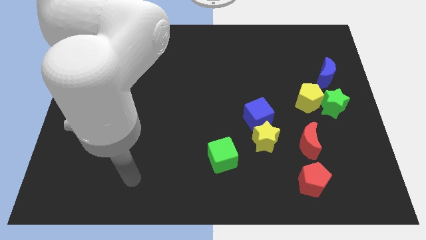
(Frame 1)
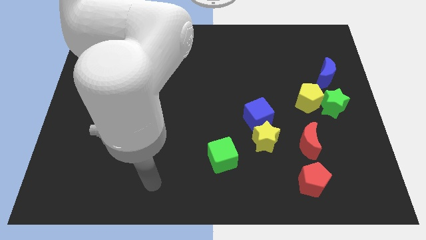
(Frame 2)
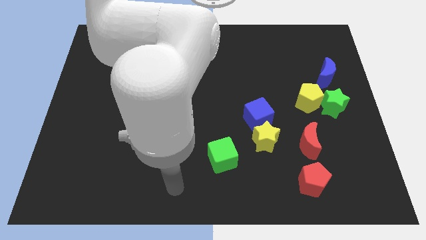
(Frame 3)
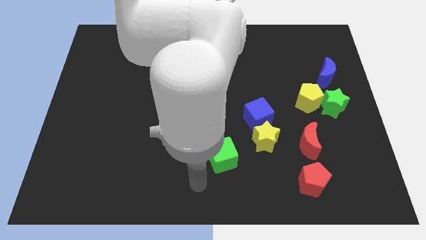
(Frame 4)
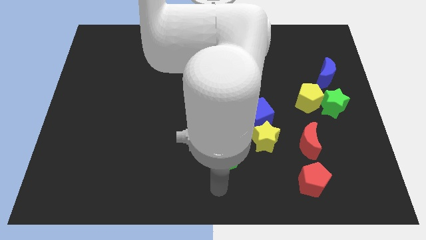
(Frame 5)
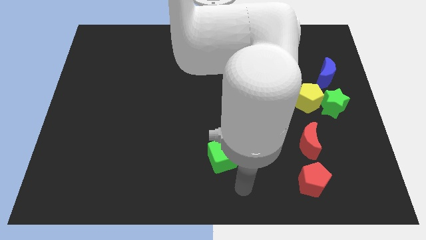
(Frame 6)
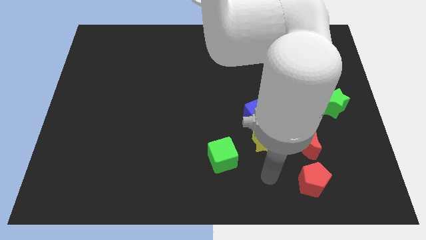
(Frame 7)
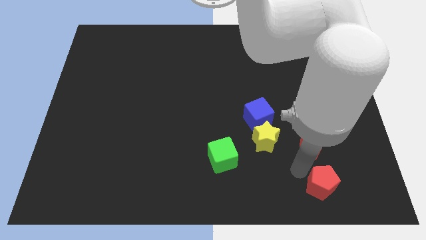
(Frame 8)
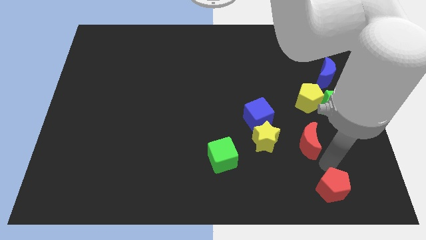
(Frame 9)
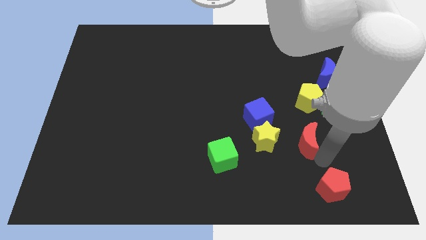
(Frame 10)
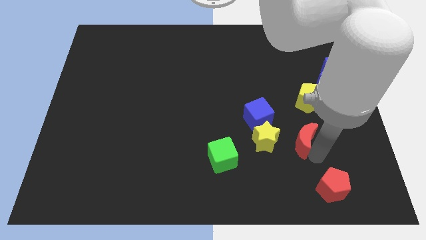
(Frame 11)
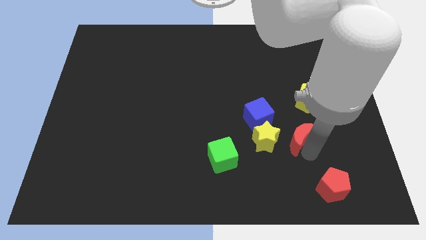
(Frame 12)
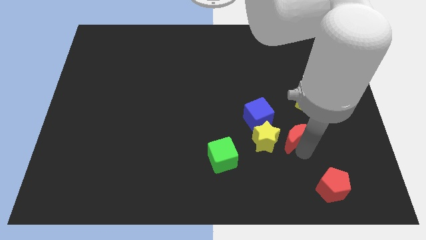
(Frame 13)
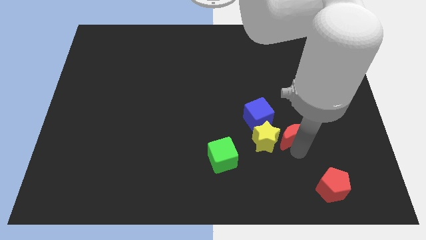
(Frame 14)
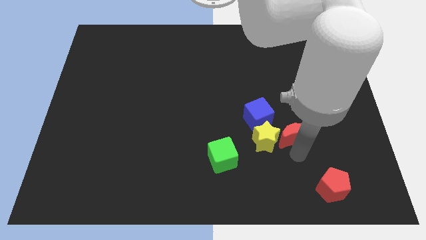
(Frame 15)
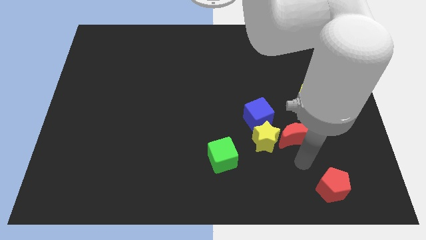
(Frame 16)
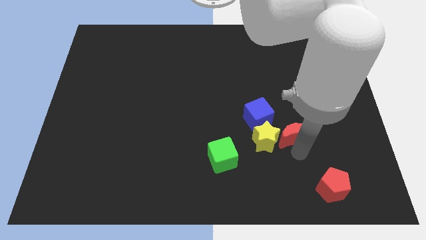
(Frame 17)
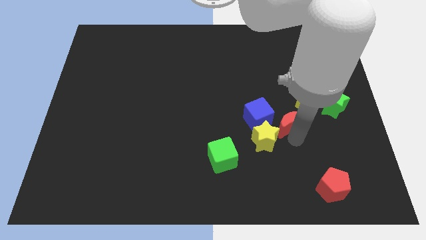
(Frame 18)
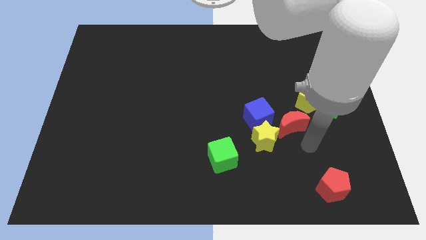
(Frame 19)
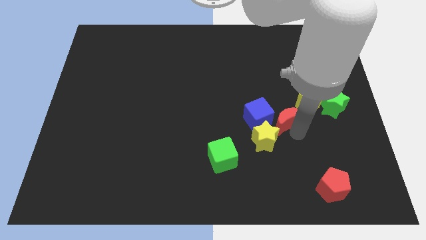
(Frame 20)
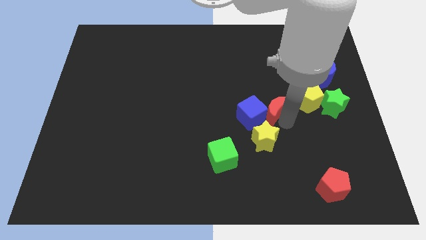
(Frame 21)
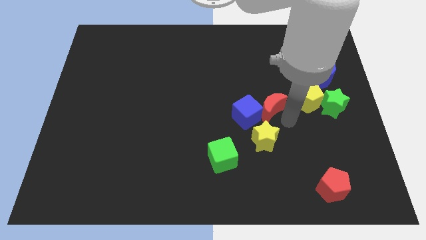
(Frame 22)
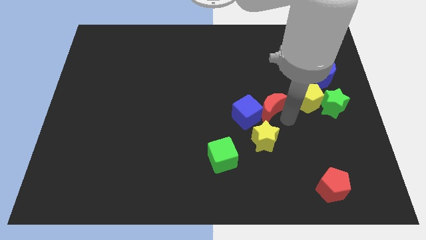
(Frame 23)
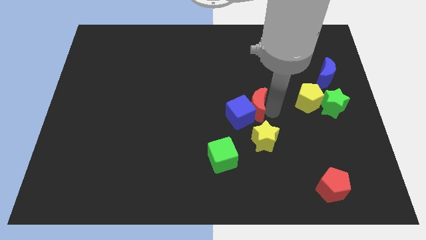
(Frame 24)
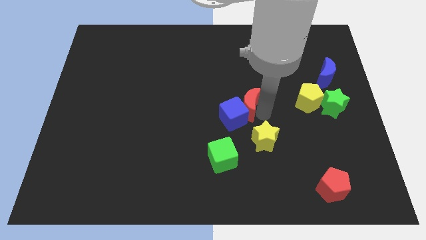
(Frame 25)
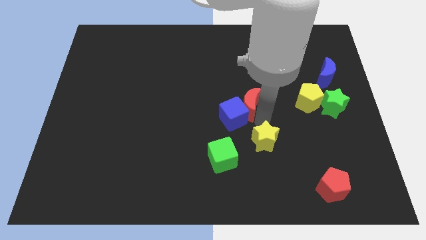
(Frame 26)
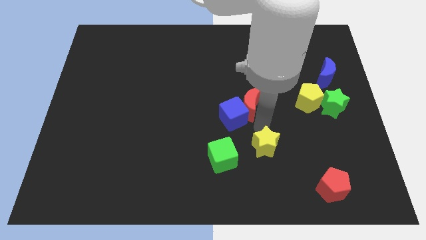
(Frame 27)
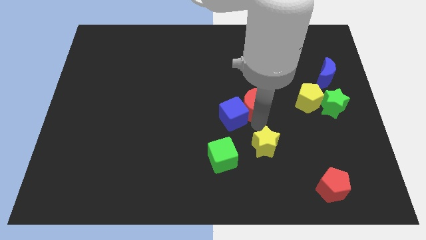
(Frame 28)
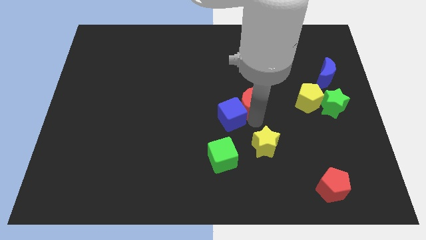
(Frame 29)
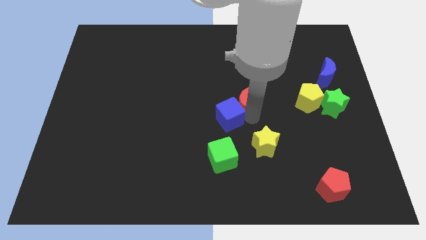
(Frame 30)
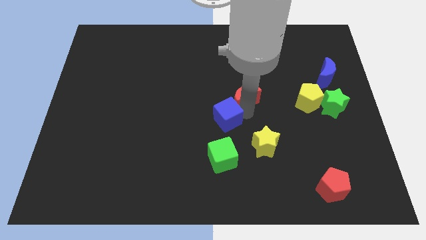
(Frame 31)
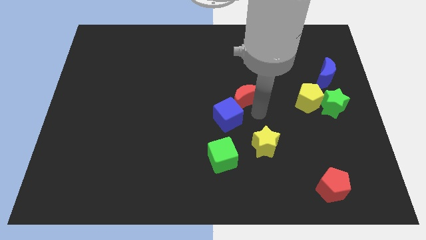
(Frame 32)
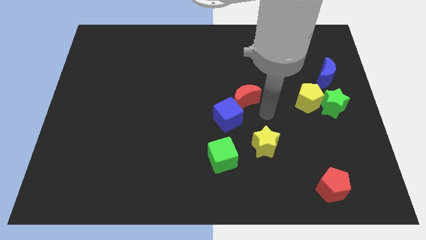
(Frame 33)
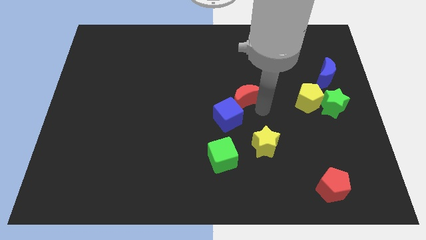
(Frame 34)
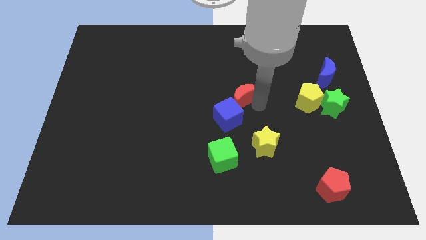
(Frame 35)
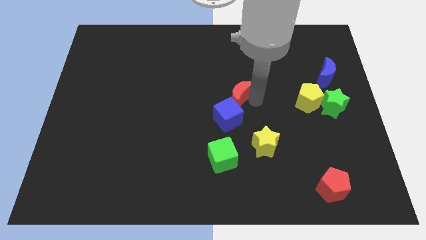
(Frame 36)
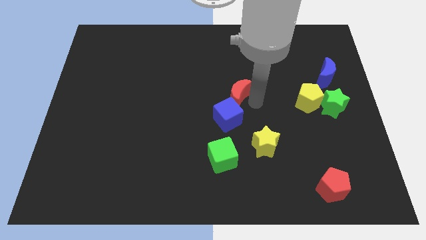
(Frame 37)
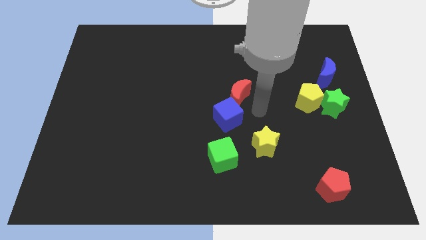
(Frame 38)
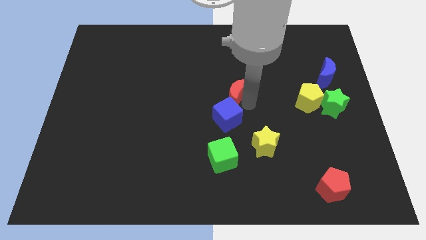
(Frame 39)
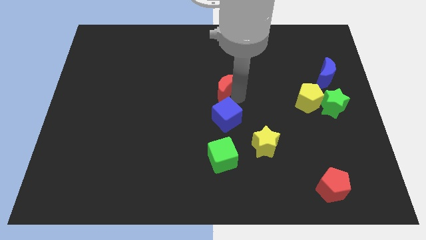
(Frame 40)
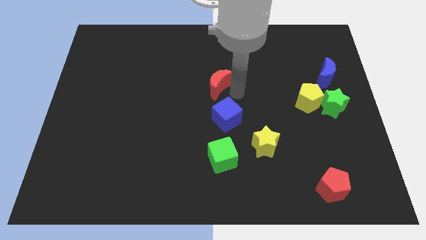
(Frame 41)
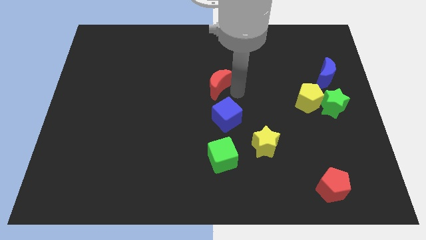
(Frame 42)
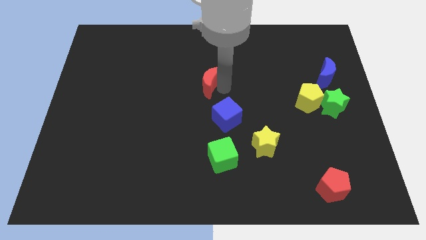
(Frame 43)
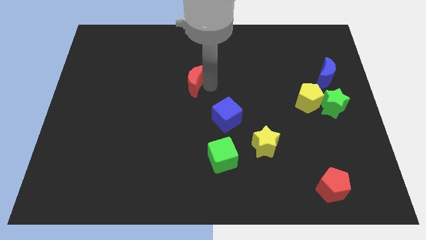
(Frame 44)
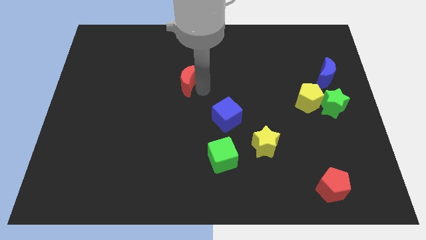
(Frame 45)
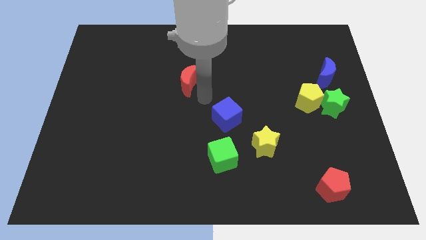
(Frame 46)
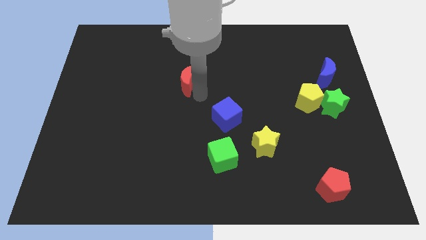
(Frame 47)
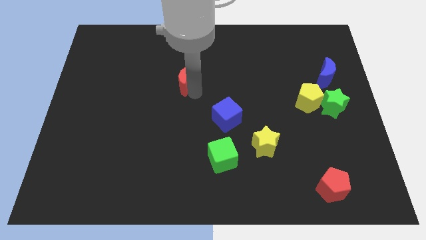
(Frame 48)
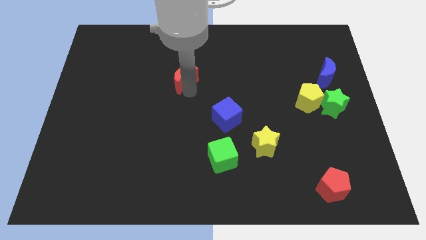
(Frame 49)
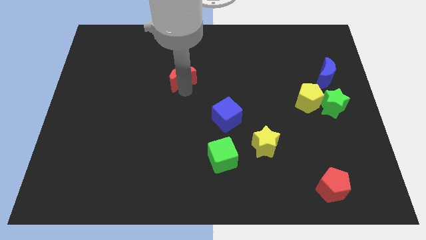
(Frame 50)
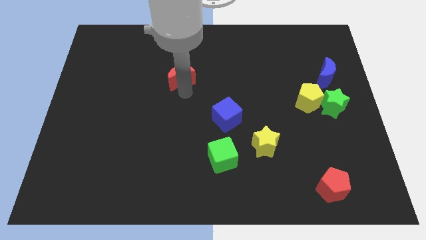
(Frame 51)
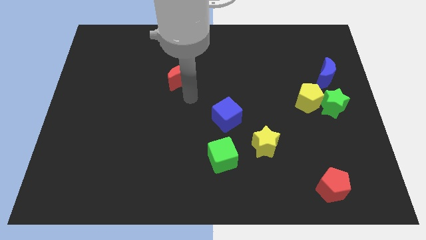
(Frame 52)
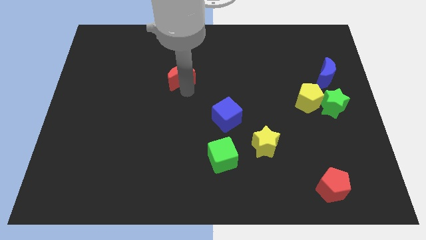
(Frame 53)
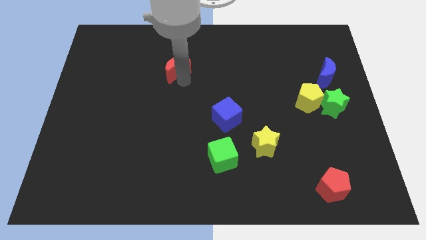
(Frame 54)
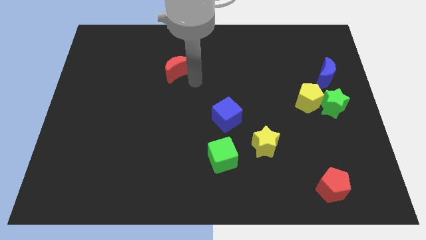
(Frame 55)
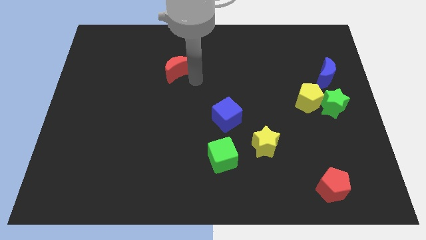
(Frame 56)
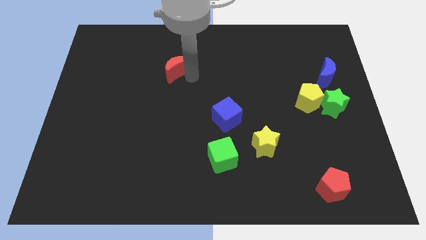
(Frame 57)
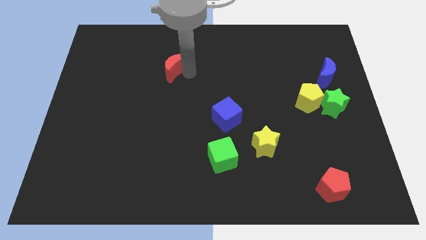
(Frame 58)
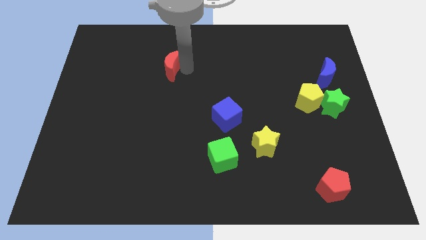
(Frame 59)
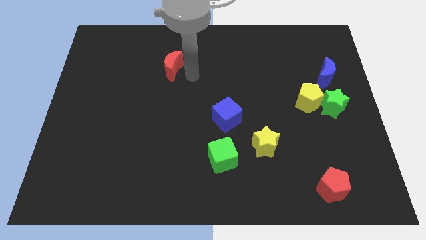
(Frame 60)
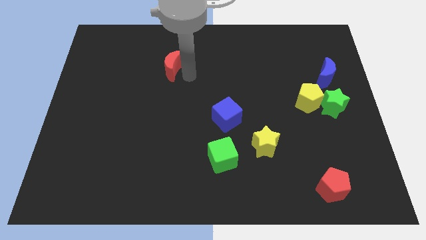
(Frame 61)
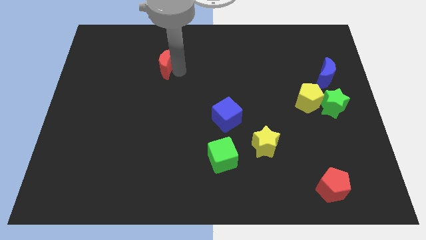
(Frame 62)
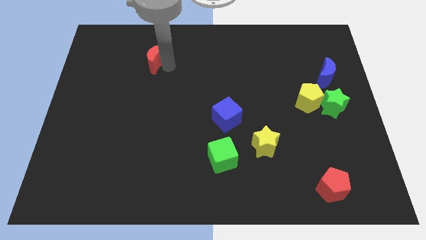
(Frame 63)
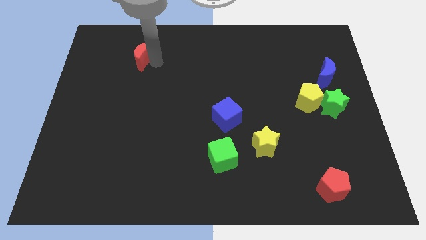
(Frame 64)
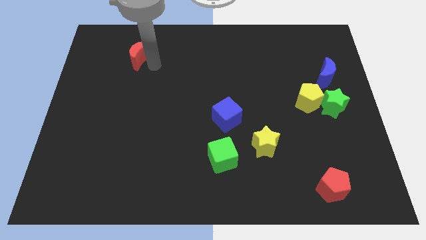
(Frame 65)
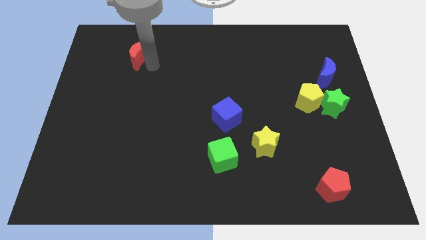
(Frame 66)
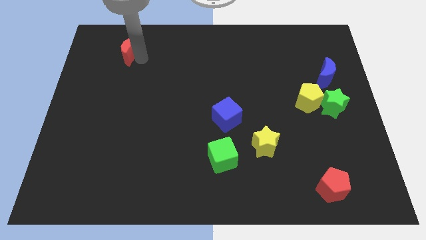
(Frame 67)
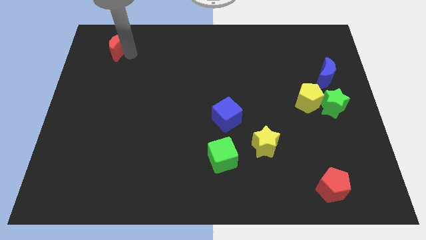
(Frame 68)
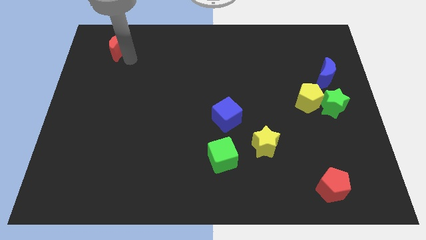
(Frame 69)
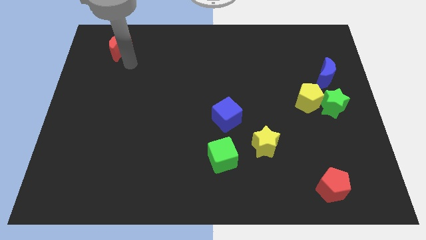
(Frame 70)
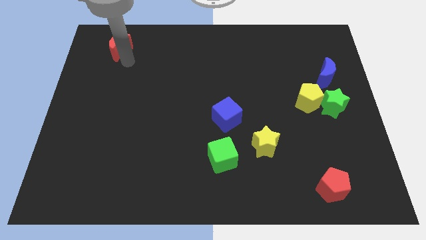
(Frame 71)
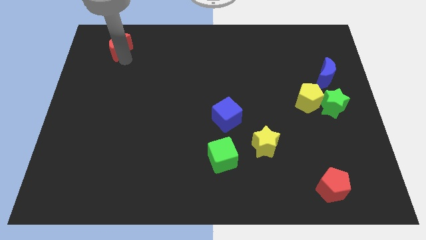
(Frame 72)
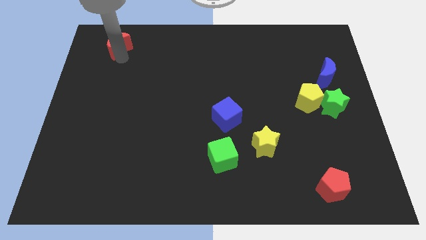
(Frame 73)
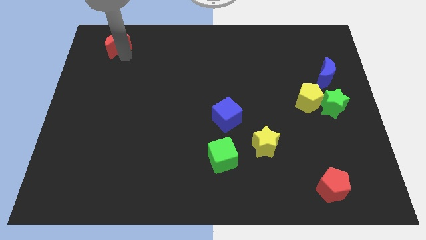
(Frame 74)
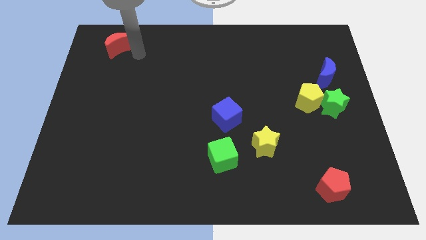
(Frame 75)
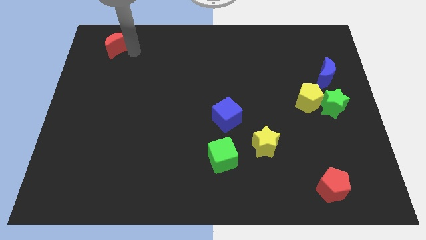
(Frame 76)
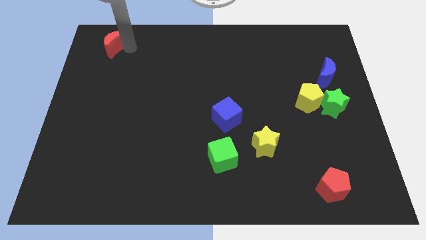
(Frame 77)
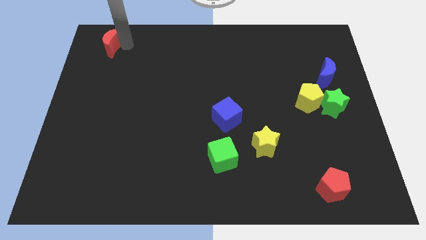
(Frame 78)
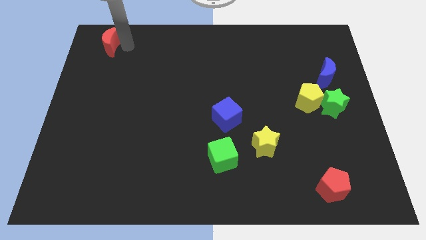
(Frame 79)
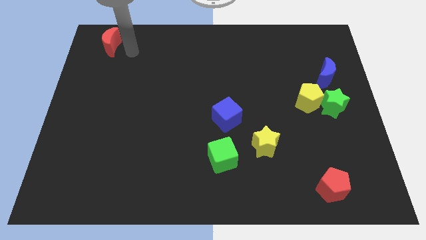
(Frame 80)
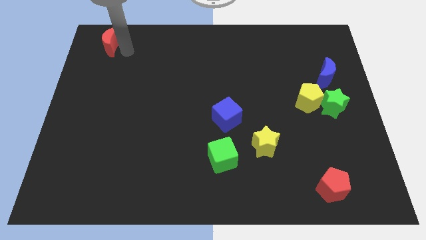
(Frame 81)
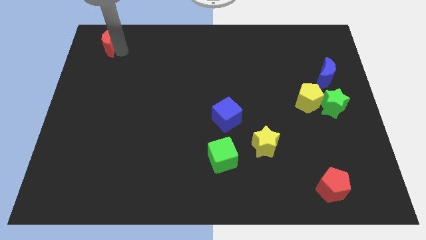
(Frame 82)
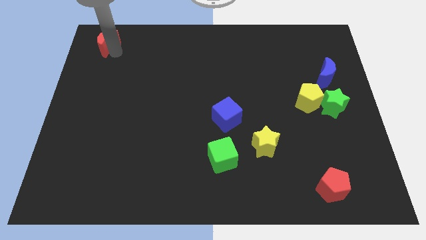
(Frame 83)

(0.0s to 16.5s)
slide the red moon to the top left corner
